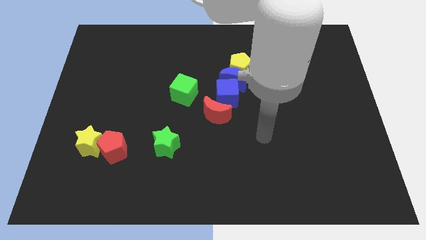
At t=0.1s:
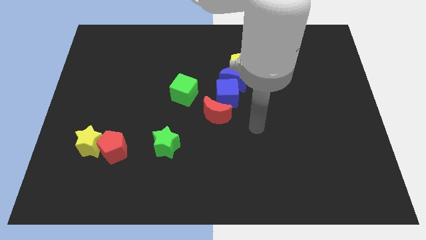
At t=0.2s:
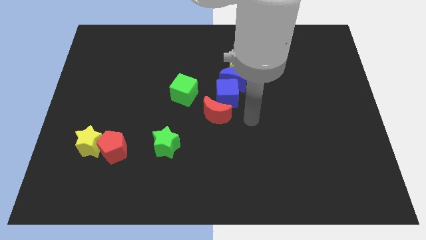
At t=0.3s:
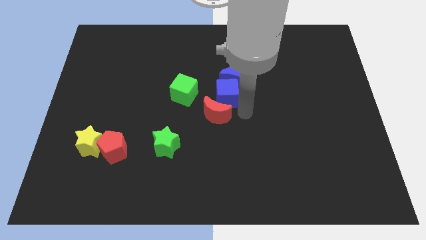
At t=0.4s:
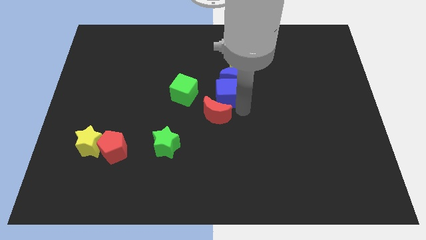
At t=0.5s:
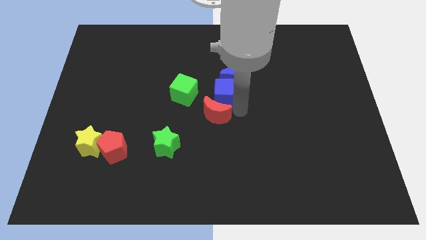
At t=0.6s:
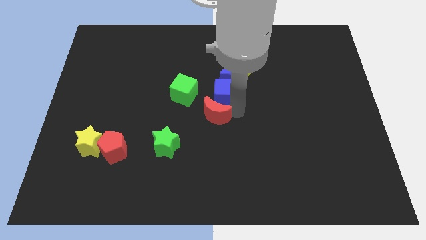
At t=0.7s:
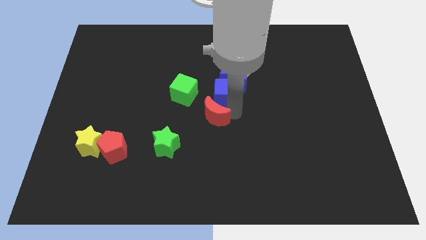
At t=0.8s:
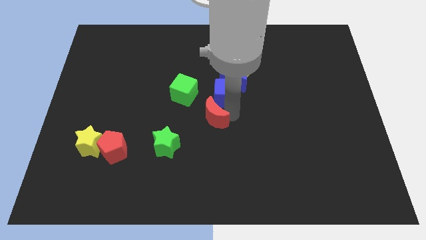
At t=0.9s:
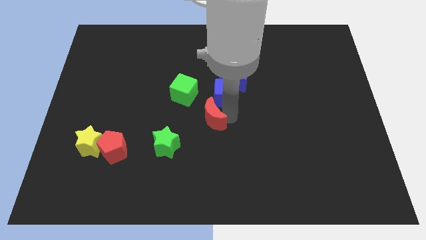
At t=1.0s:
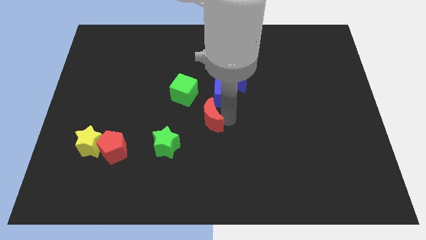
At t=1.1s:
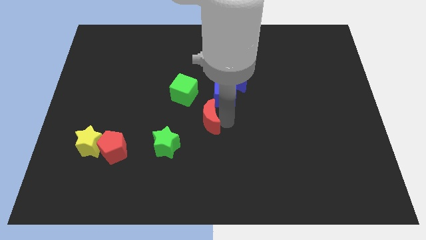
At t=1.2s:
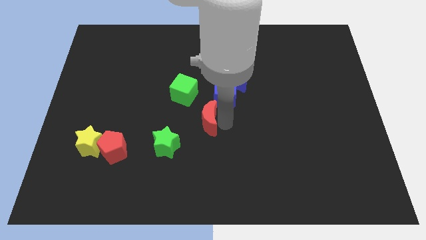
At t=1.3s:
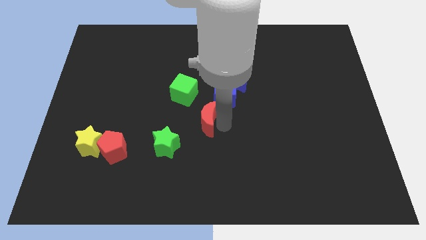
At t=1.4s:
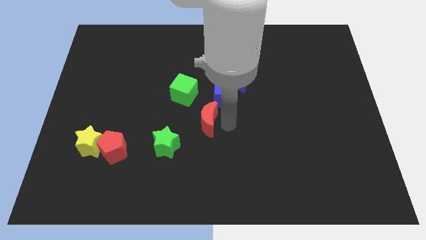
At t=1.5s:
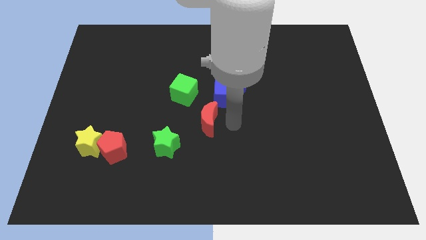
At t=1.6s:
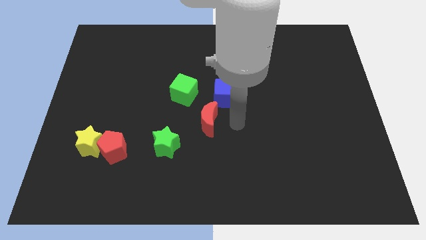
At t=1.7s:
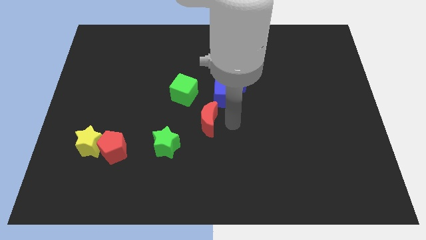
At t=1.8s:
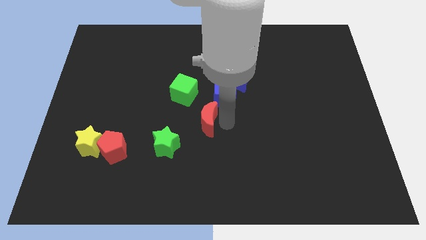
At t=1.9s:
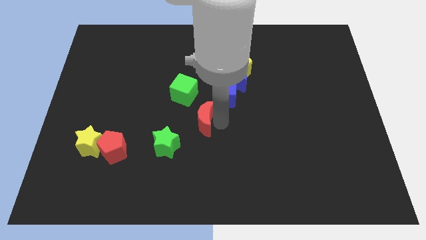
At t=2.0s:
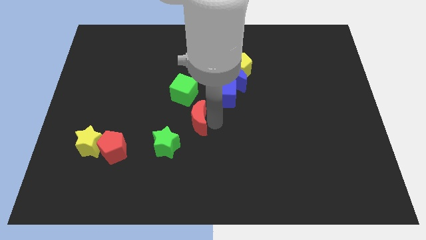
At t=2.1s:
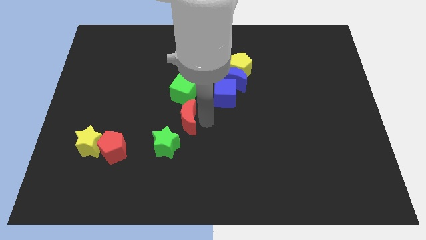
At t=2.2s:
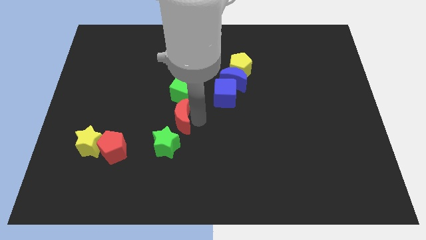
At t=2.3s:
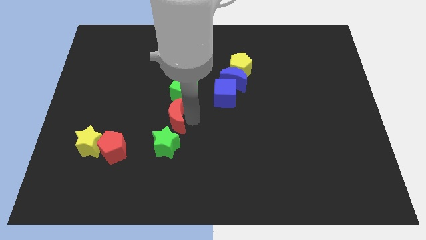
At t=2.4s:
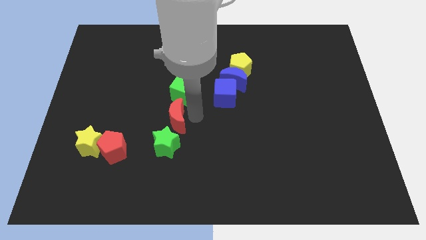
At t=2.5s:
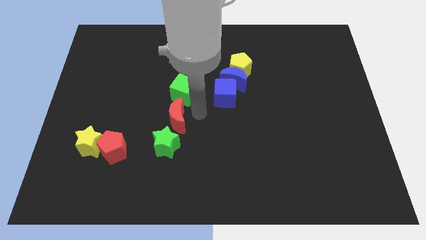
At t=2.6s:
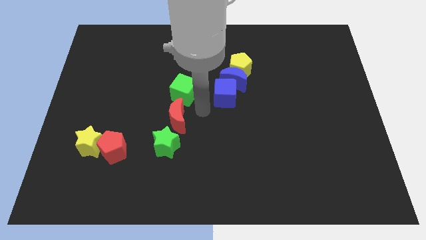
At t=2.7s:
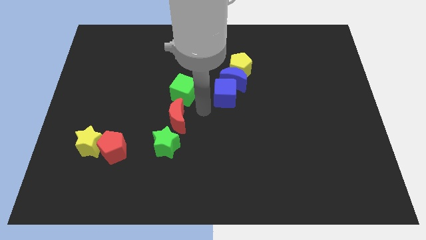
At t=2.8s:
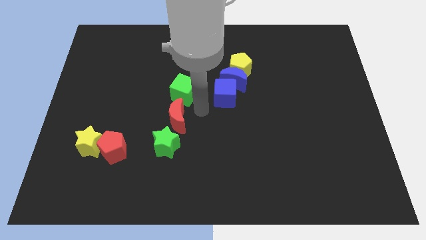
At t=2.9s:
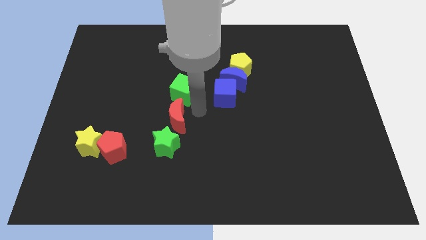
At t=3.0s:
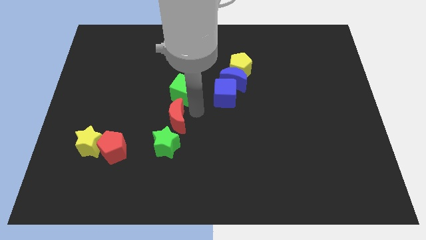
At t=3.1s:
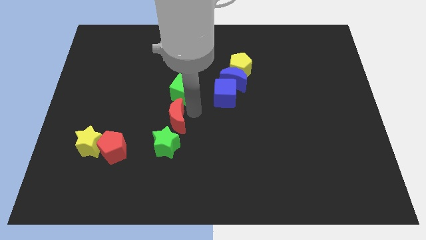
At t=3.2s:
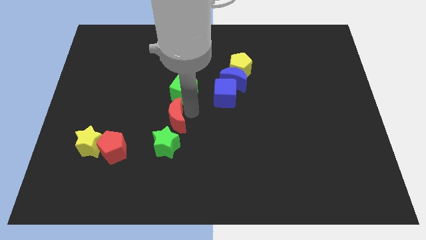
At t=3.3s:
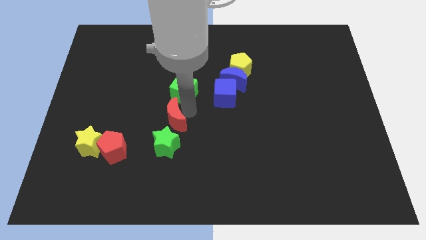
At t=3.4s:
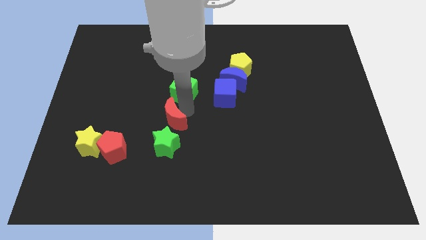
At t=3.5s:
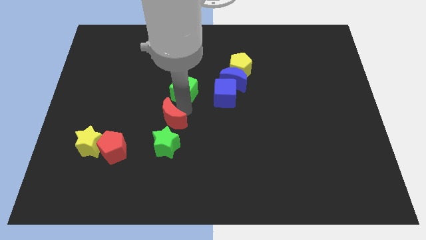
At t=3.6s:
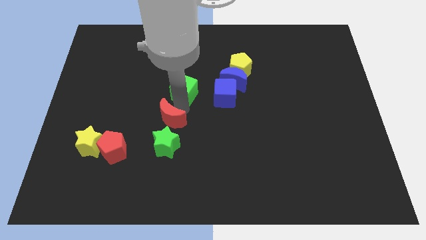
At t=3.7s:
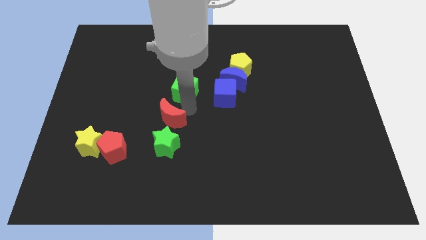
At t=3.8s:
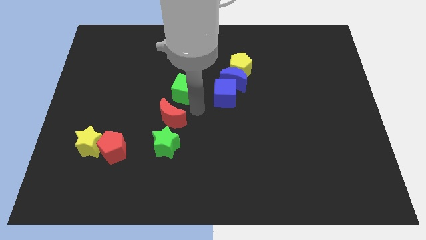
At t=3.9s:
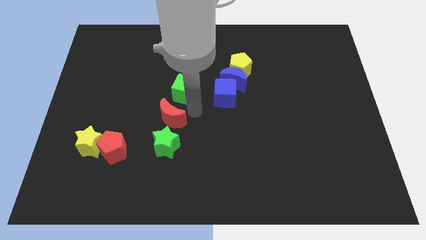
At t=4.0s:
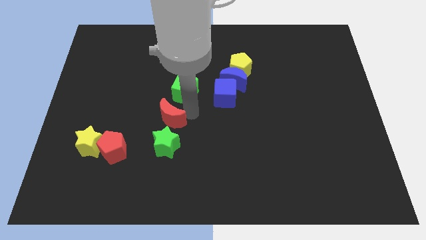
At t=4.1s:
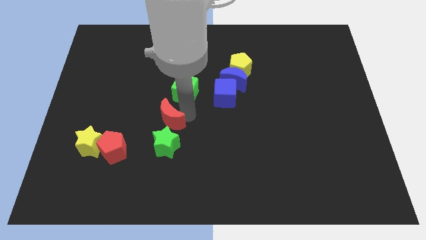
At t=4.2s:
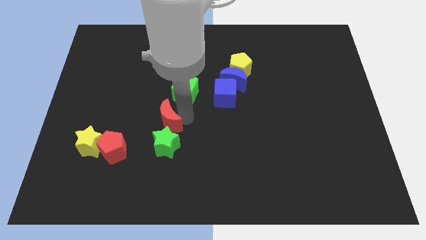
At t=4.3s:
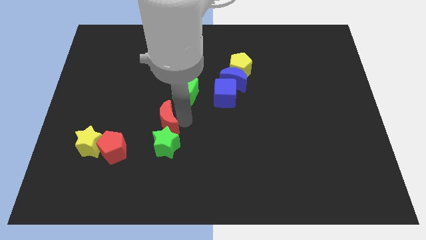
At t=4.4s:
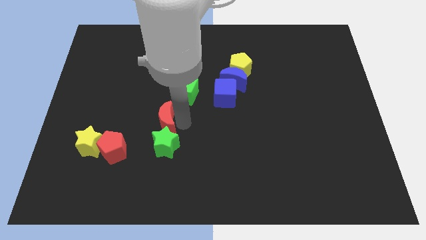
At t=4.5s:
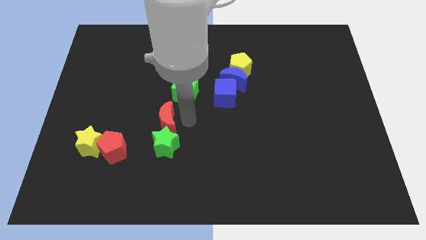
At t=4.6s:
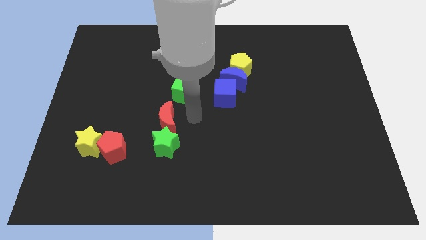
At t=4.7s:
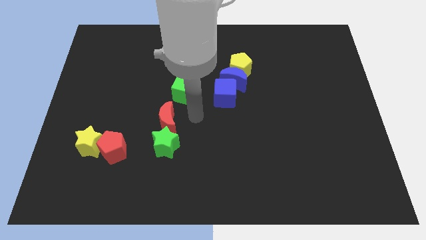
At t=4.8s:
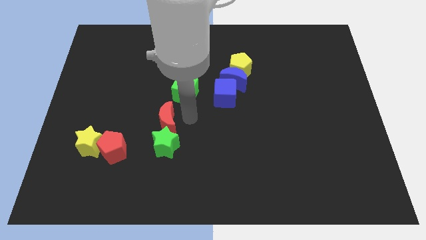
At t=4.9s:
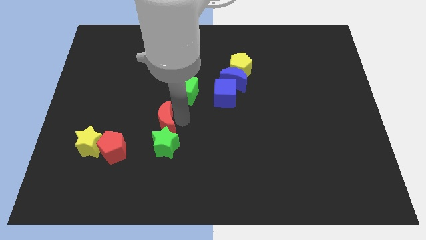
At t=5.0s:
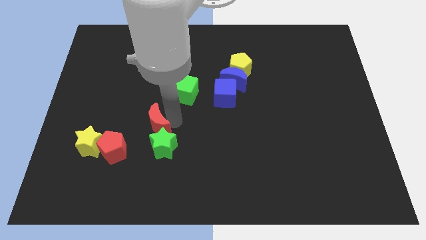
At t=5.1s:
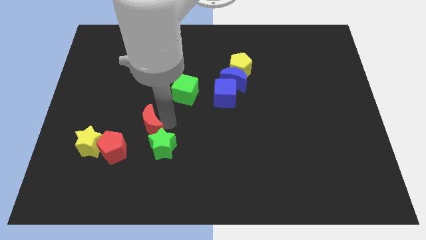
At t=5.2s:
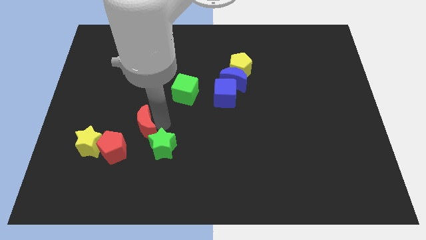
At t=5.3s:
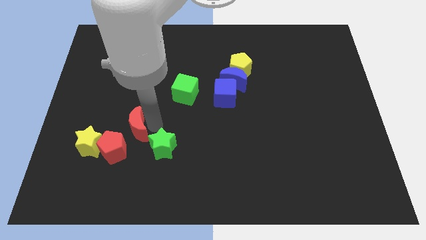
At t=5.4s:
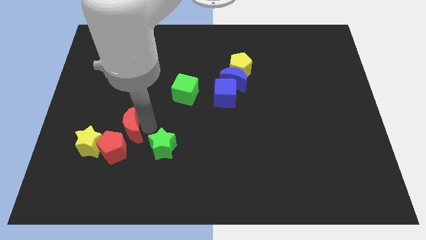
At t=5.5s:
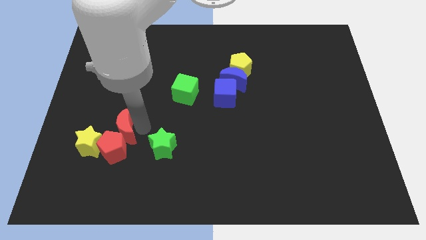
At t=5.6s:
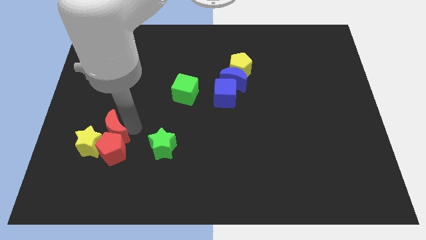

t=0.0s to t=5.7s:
put the red moon towards the yellow star

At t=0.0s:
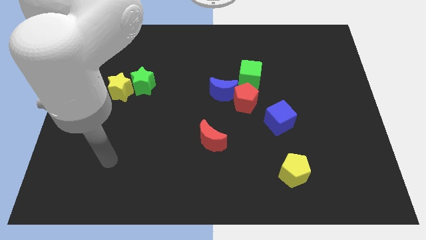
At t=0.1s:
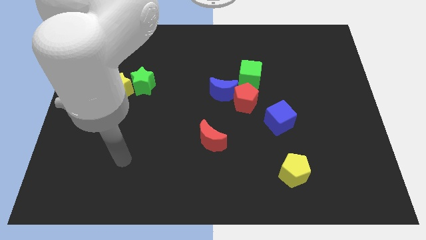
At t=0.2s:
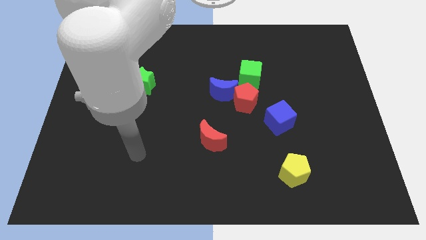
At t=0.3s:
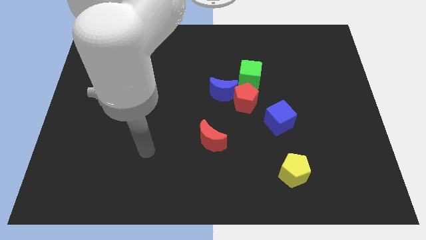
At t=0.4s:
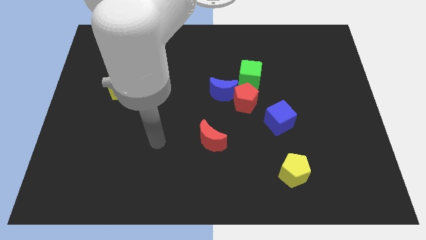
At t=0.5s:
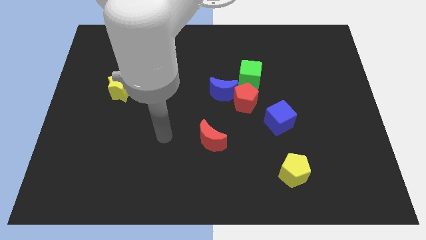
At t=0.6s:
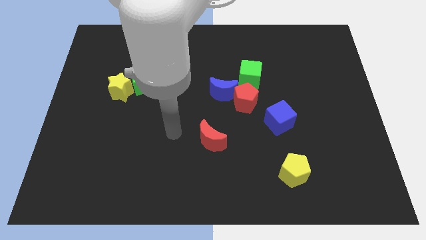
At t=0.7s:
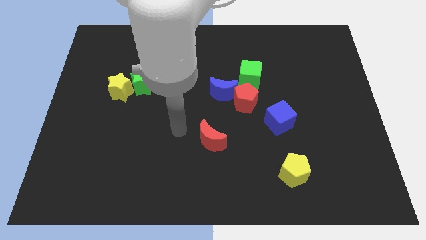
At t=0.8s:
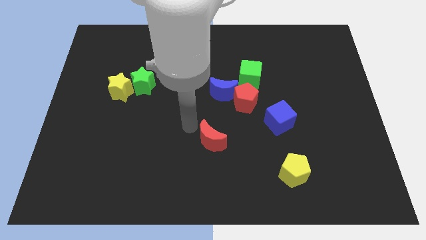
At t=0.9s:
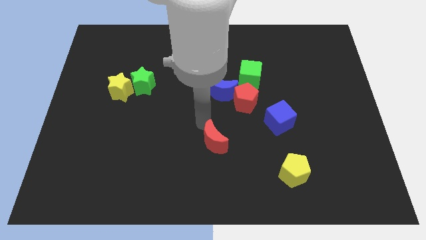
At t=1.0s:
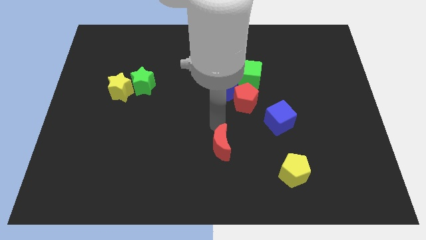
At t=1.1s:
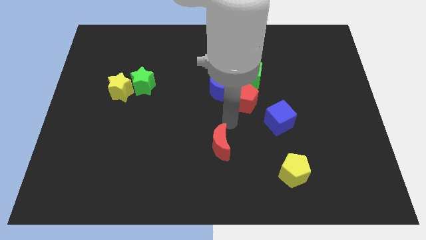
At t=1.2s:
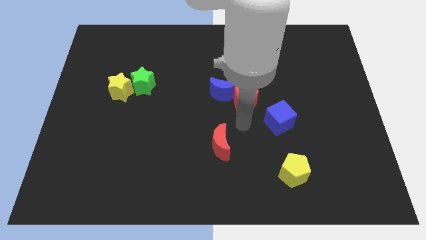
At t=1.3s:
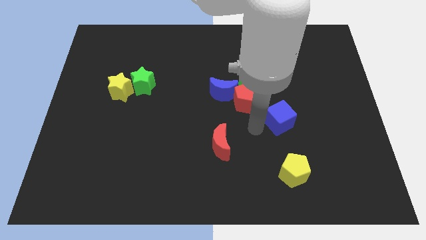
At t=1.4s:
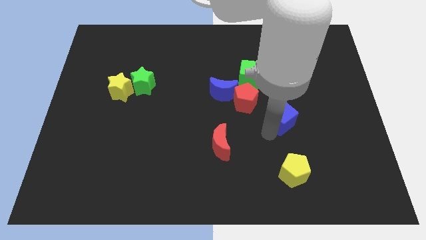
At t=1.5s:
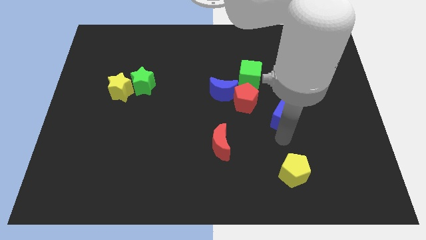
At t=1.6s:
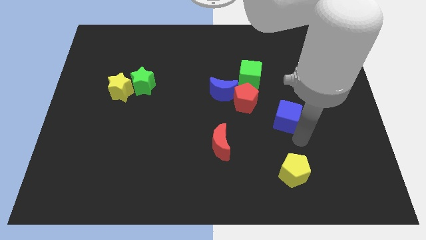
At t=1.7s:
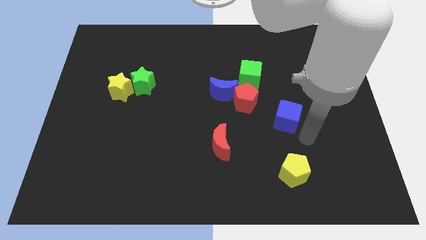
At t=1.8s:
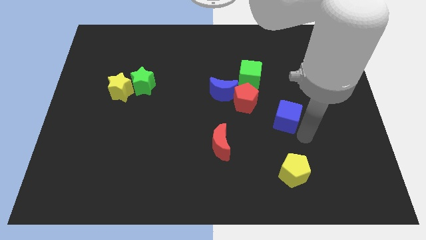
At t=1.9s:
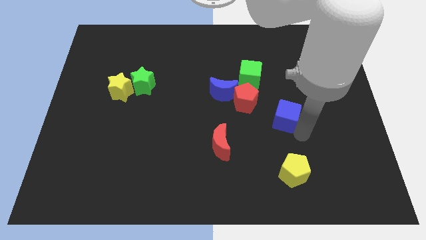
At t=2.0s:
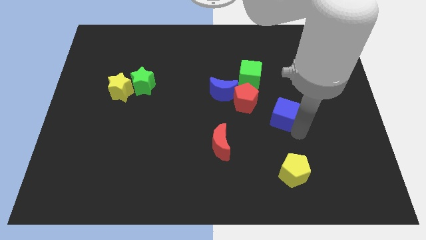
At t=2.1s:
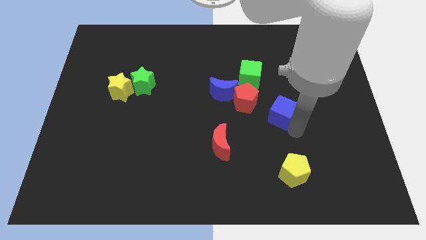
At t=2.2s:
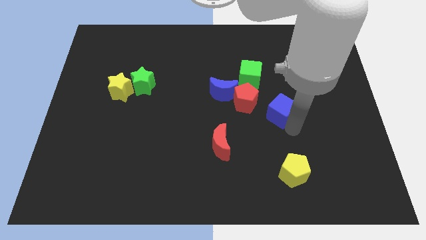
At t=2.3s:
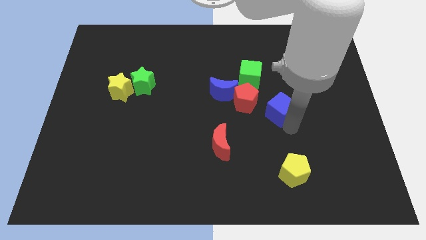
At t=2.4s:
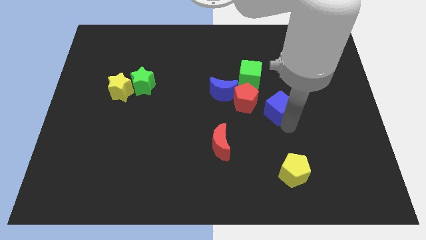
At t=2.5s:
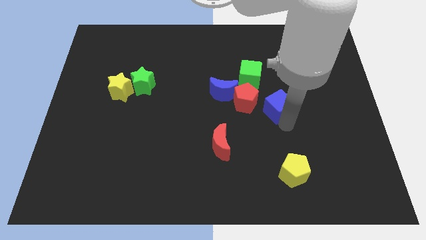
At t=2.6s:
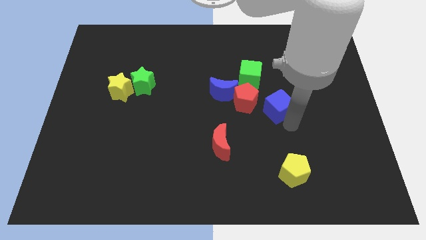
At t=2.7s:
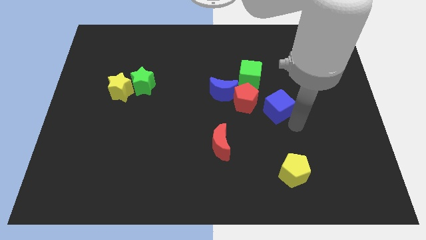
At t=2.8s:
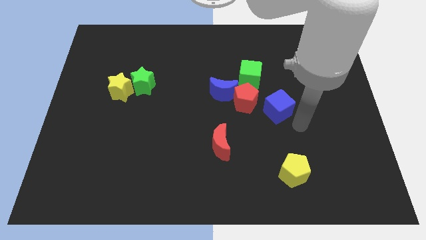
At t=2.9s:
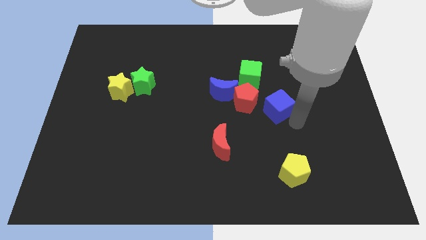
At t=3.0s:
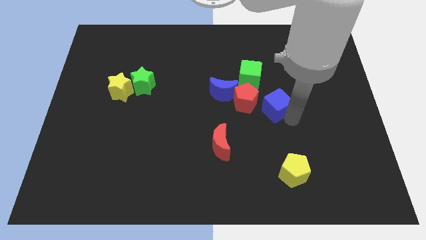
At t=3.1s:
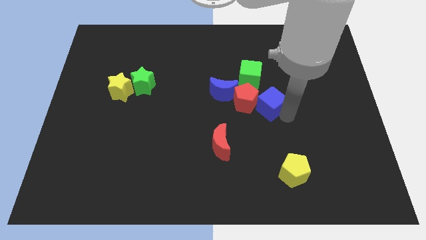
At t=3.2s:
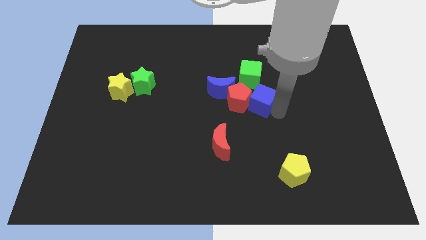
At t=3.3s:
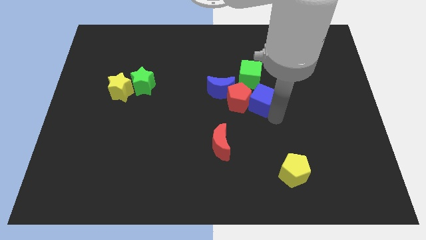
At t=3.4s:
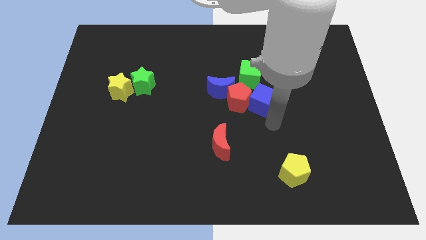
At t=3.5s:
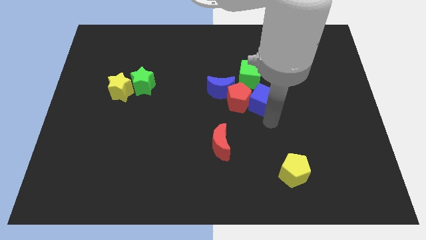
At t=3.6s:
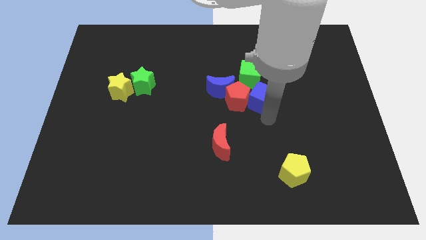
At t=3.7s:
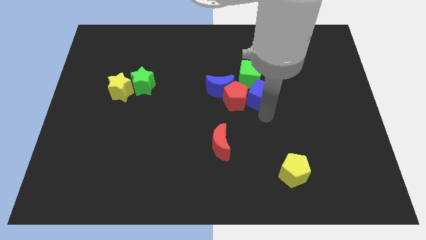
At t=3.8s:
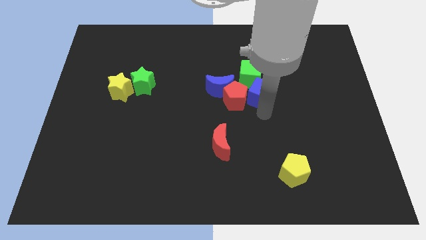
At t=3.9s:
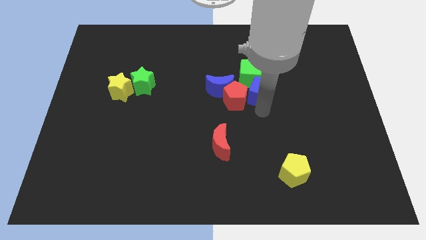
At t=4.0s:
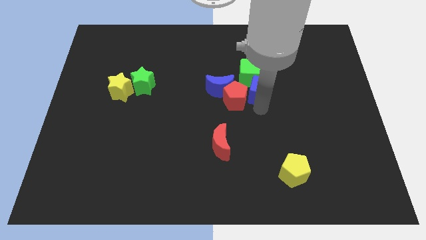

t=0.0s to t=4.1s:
put the blue cube towards the green cube
